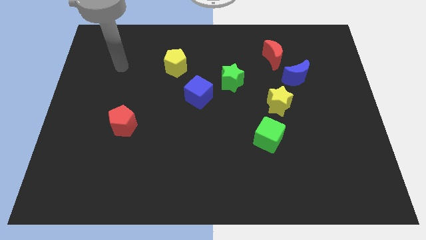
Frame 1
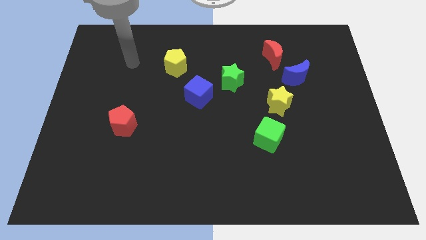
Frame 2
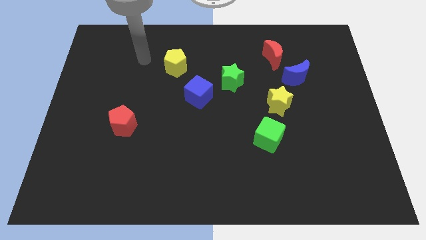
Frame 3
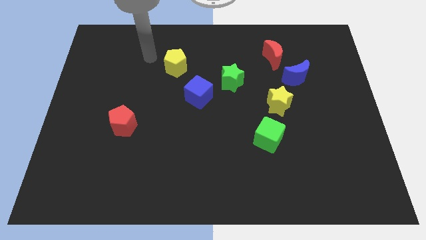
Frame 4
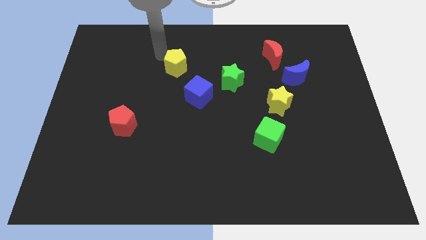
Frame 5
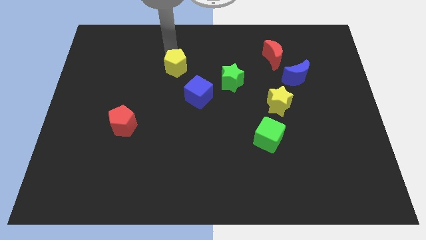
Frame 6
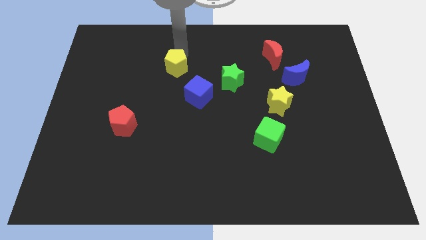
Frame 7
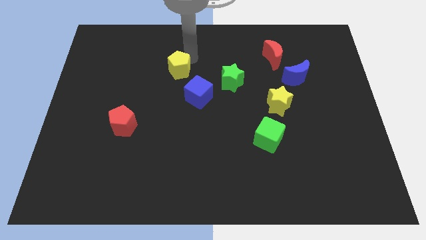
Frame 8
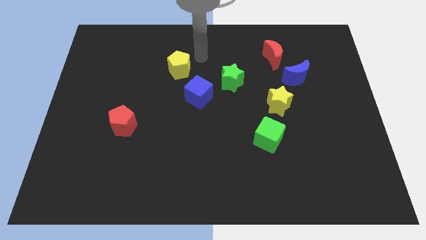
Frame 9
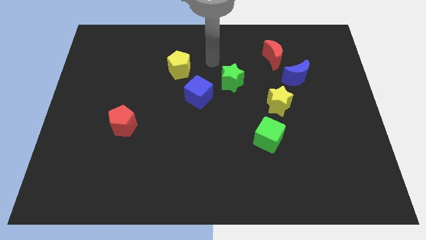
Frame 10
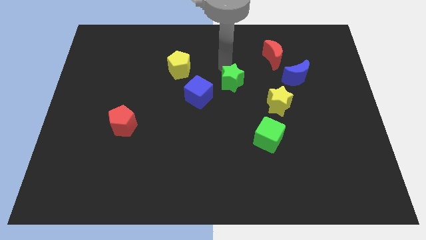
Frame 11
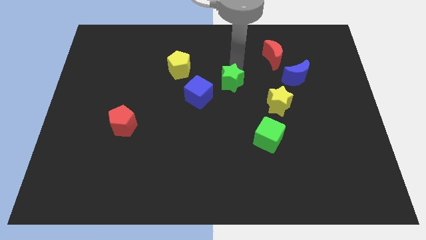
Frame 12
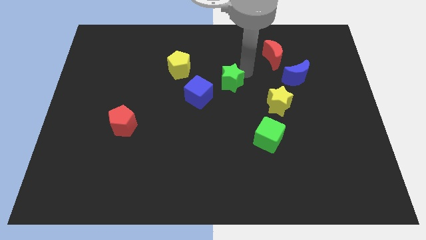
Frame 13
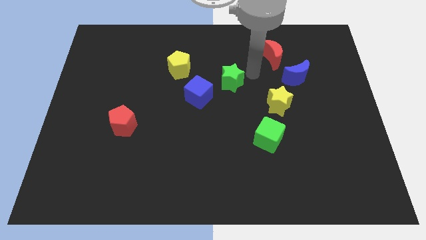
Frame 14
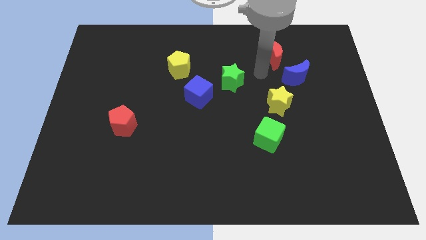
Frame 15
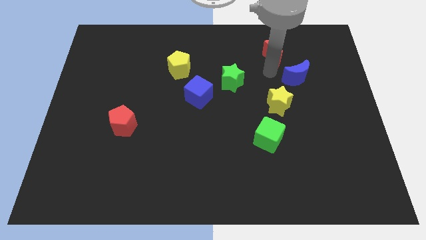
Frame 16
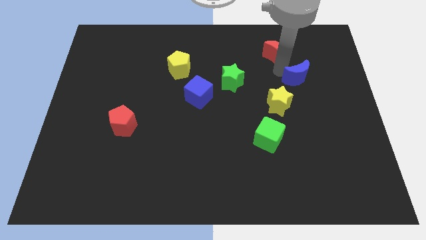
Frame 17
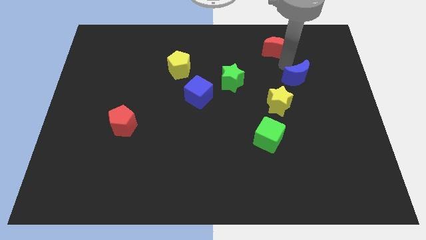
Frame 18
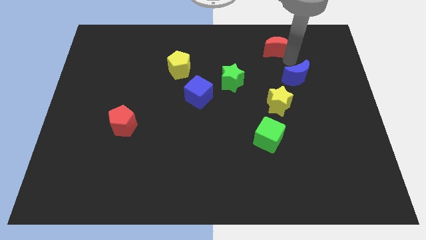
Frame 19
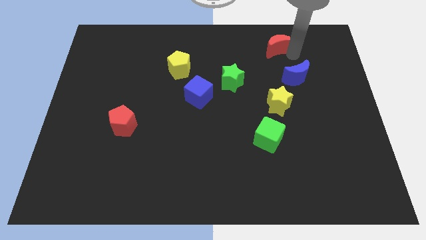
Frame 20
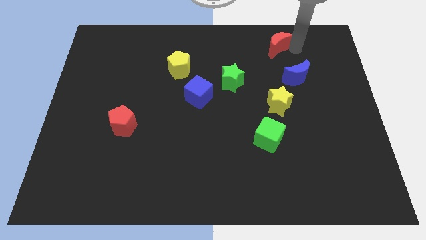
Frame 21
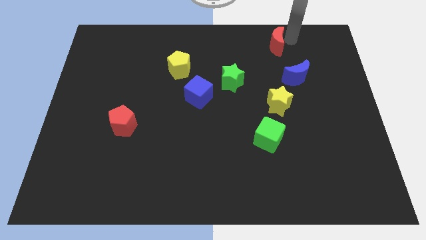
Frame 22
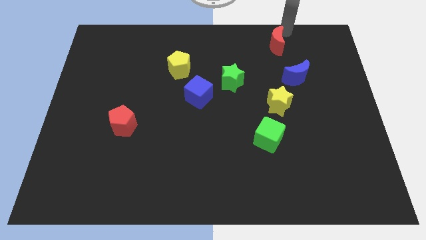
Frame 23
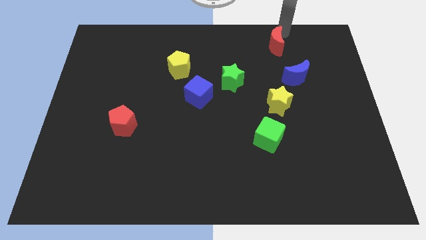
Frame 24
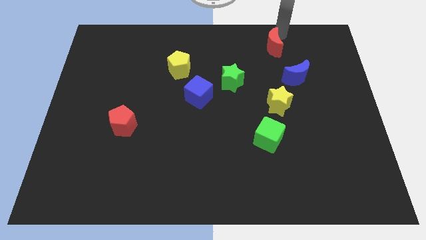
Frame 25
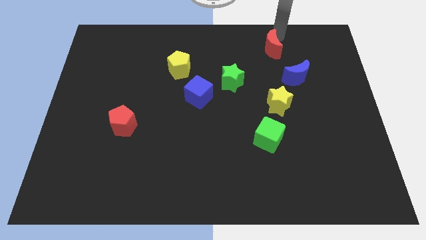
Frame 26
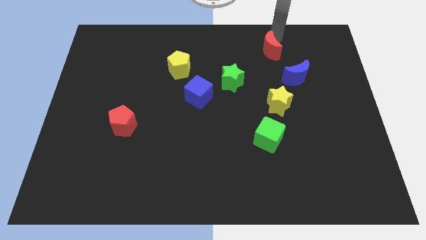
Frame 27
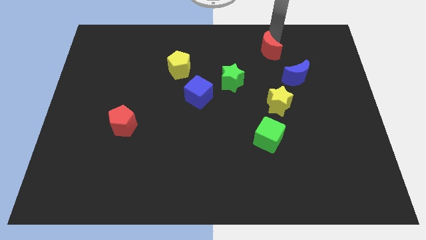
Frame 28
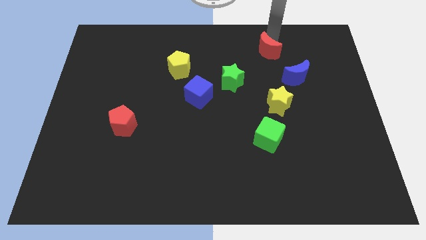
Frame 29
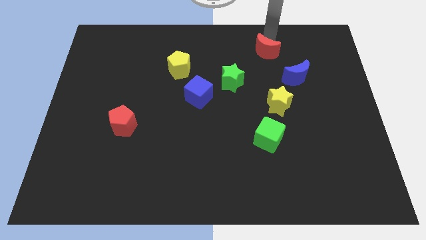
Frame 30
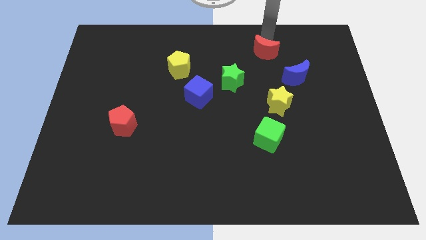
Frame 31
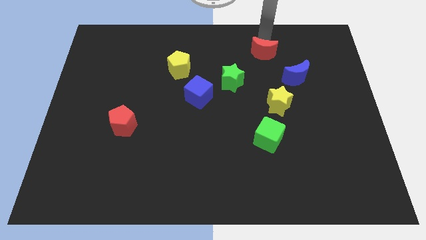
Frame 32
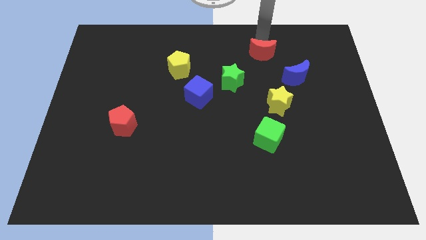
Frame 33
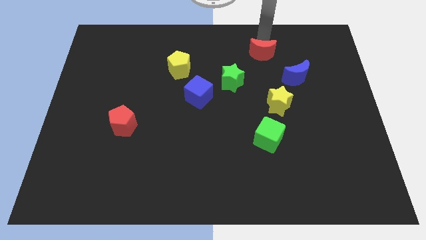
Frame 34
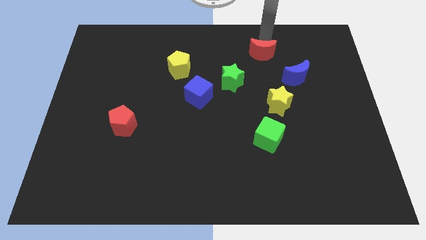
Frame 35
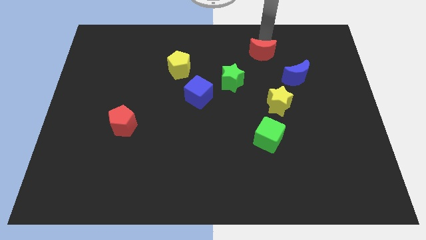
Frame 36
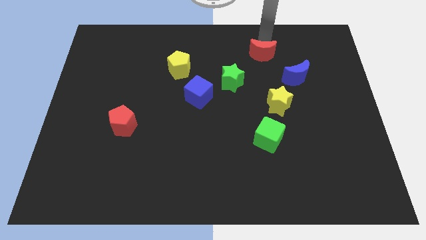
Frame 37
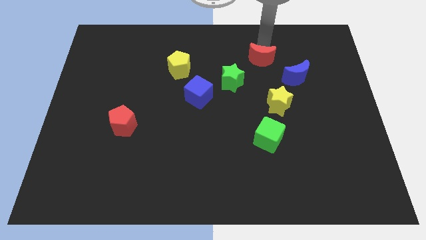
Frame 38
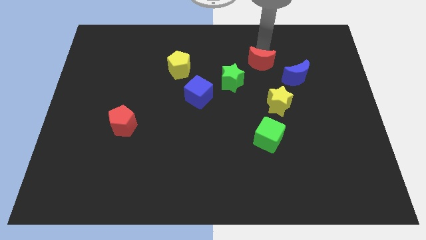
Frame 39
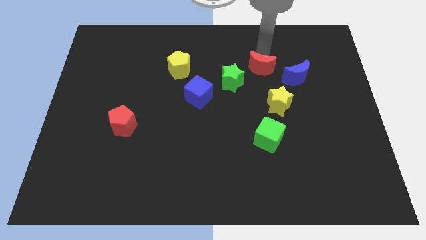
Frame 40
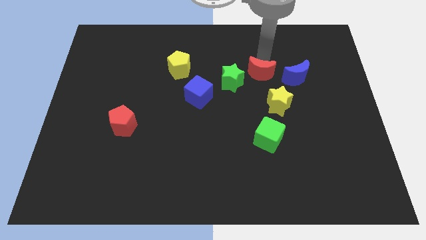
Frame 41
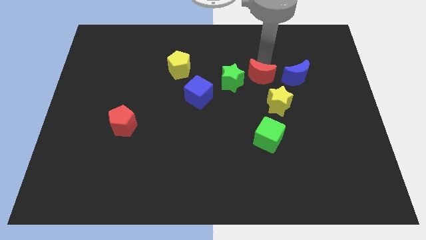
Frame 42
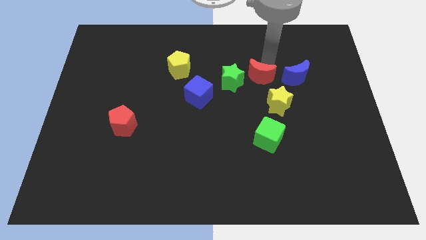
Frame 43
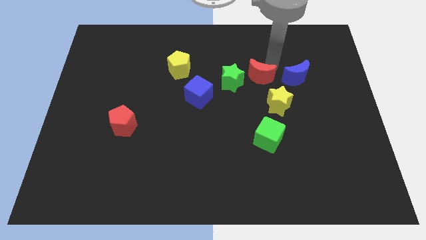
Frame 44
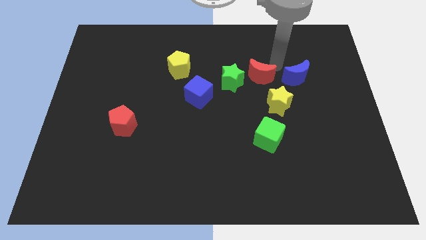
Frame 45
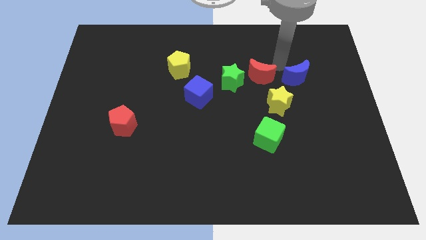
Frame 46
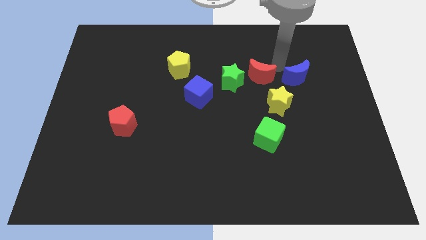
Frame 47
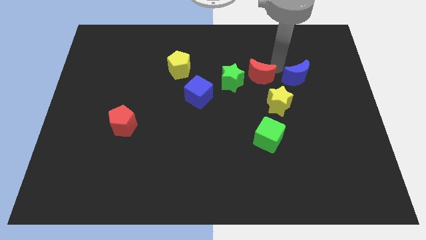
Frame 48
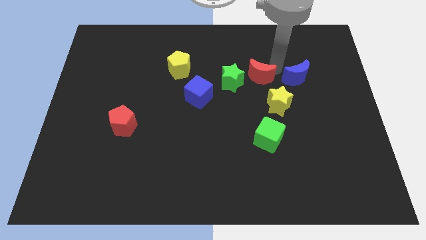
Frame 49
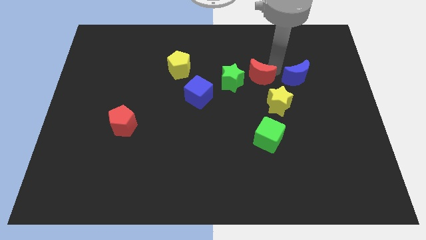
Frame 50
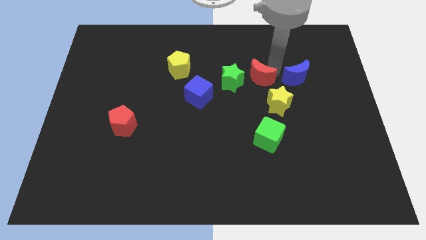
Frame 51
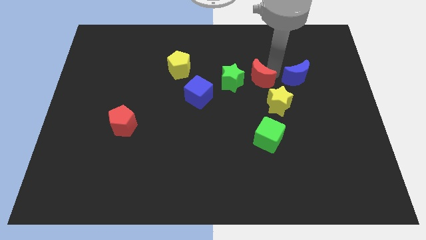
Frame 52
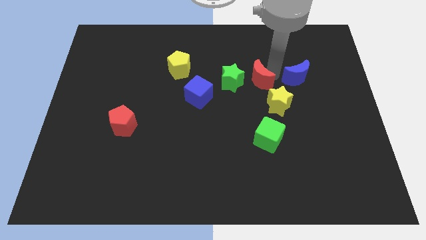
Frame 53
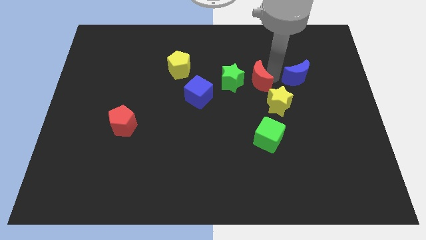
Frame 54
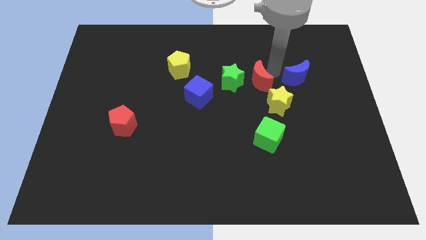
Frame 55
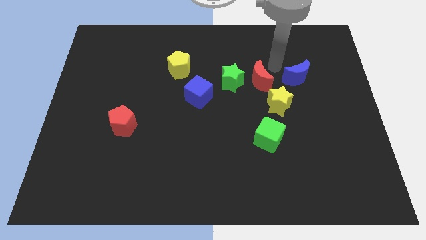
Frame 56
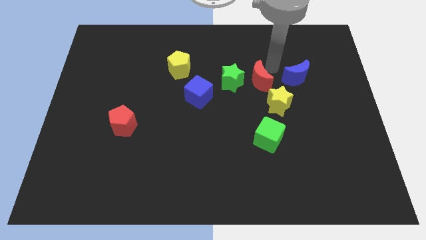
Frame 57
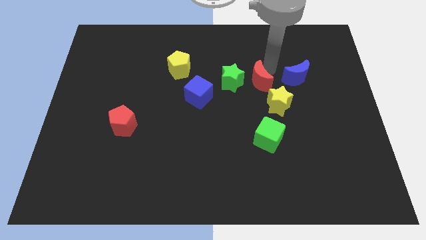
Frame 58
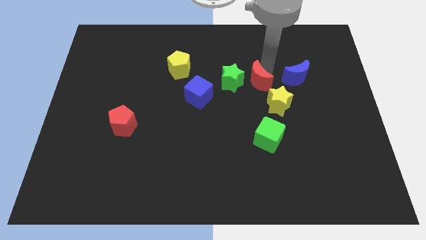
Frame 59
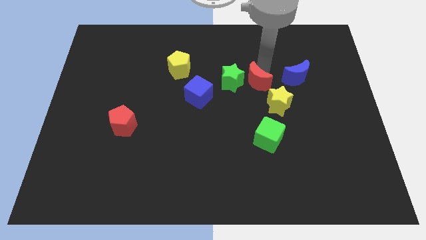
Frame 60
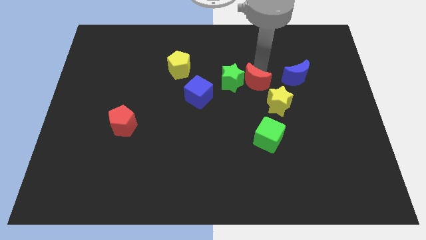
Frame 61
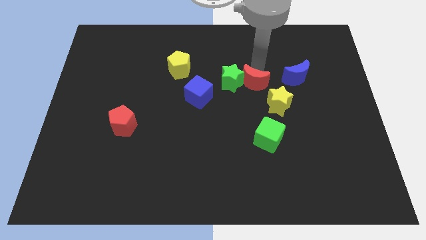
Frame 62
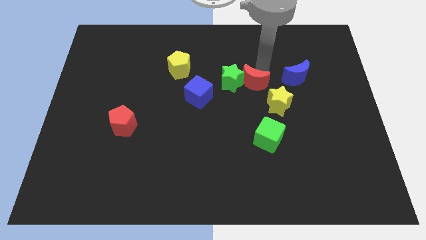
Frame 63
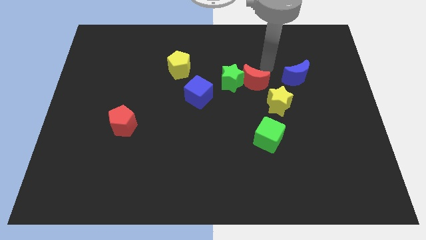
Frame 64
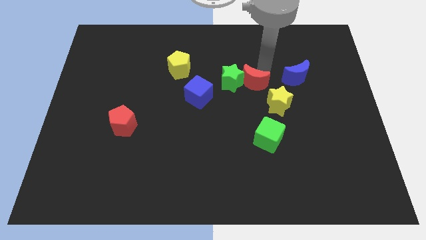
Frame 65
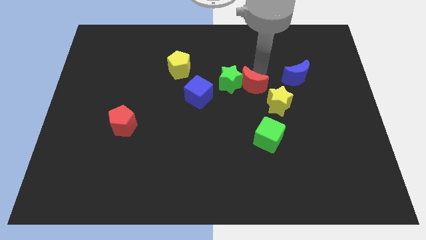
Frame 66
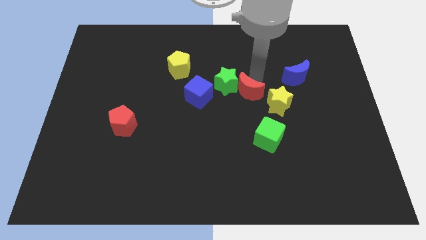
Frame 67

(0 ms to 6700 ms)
slide the red moon to the left side of the yellow star
